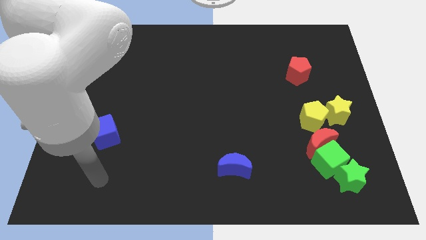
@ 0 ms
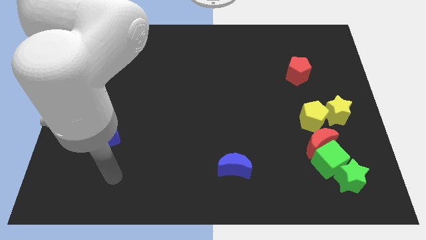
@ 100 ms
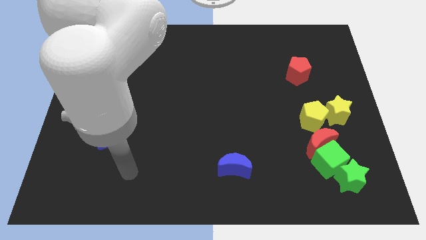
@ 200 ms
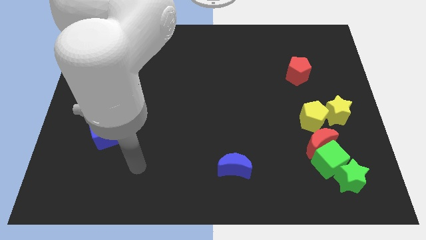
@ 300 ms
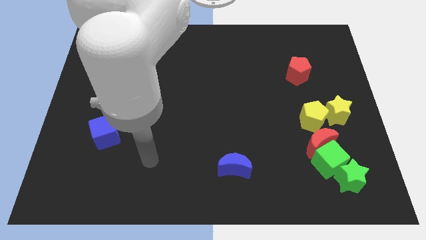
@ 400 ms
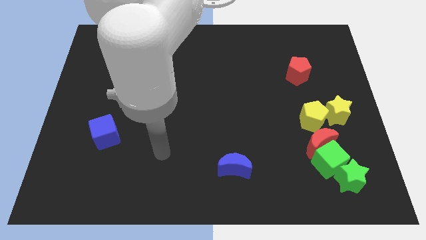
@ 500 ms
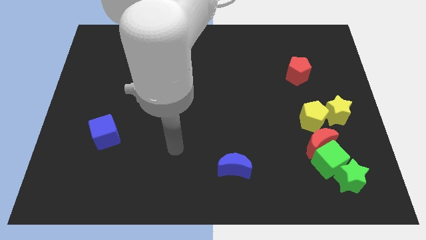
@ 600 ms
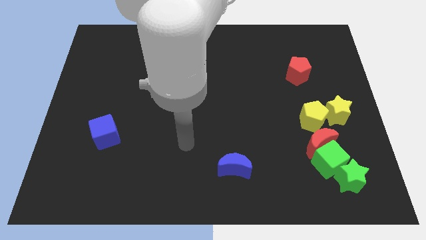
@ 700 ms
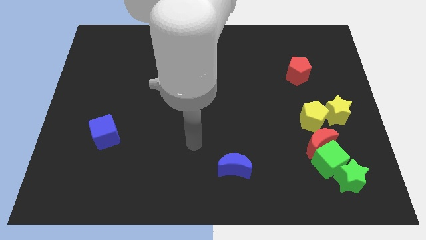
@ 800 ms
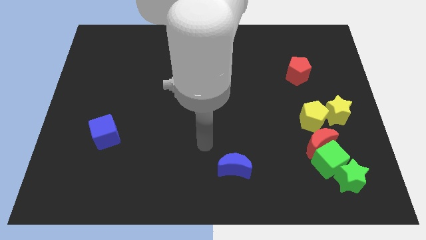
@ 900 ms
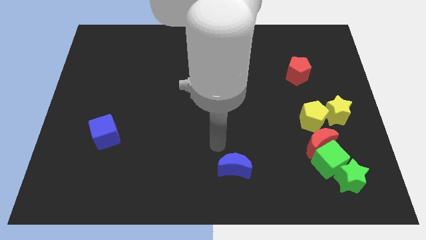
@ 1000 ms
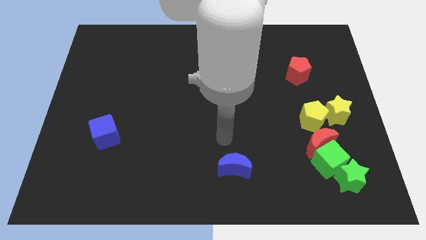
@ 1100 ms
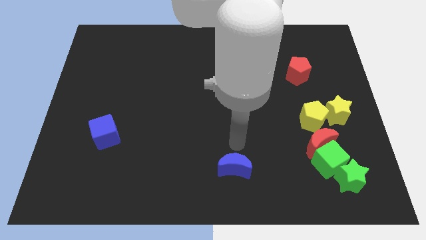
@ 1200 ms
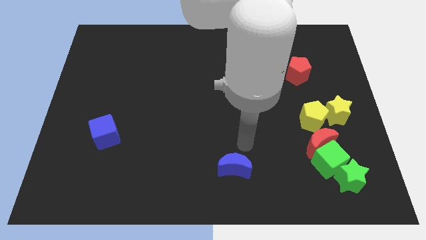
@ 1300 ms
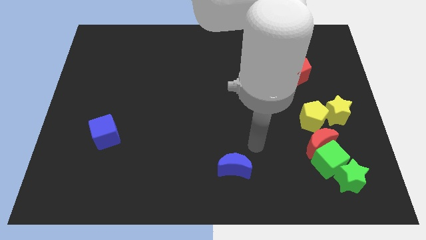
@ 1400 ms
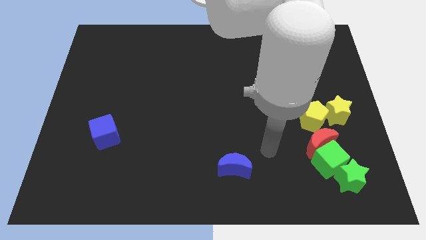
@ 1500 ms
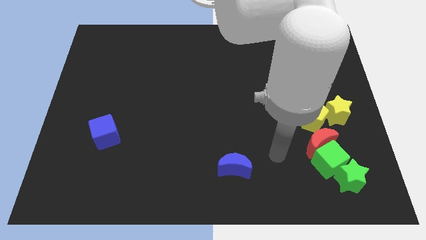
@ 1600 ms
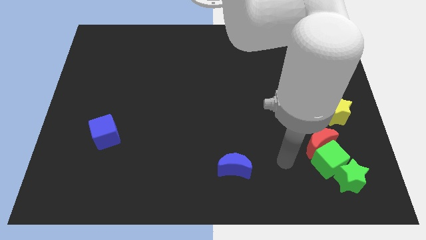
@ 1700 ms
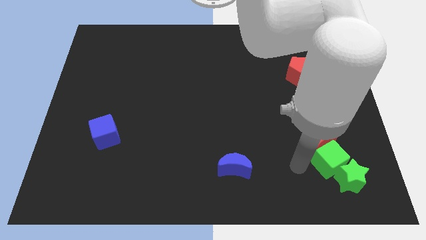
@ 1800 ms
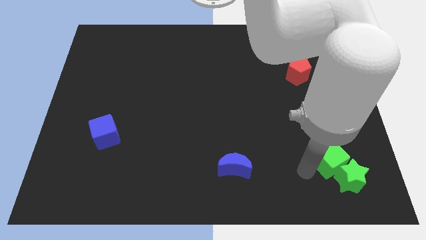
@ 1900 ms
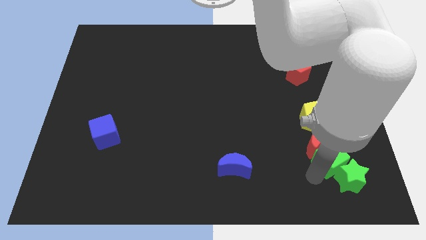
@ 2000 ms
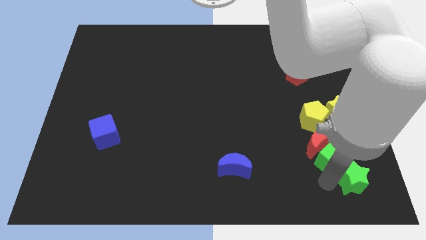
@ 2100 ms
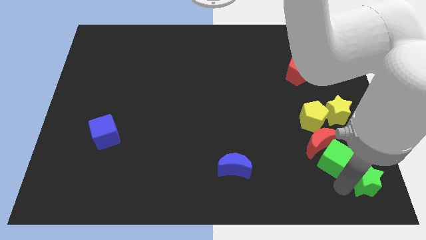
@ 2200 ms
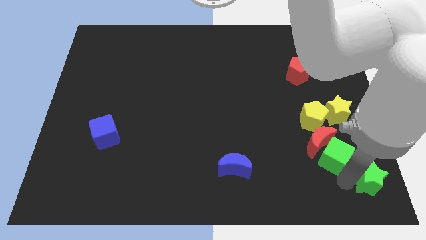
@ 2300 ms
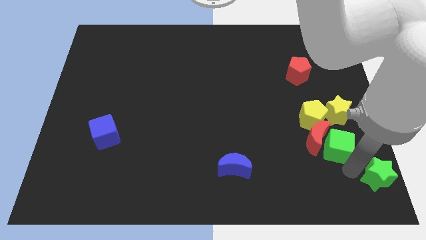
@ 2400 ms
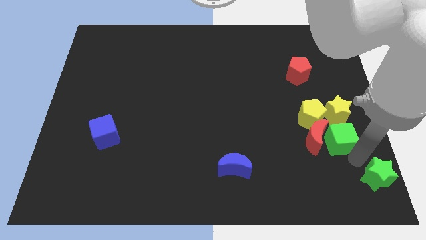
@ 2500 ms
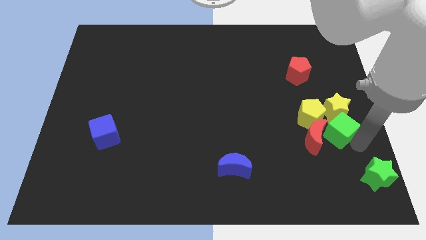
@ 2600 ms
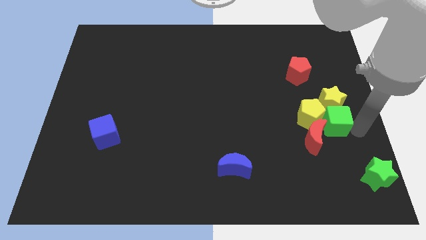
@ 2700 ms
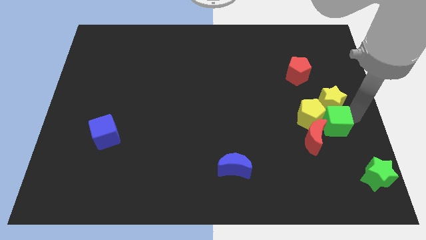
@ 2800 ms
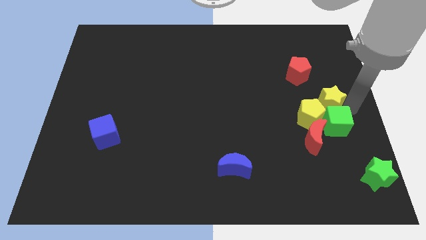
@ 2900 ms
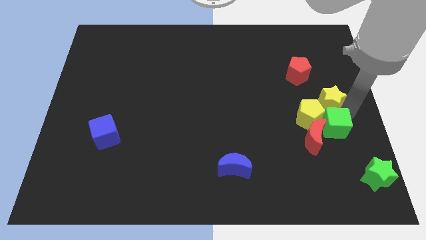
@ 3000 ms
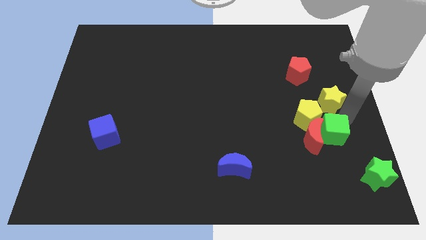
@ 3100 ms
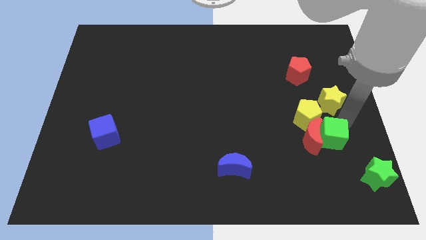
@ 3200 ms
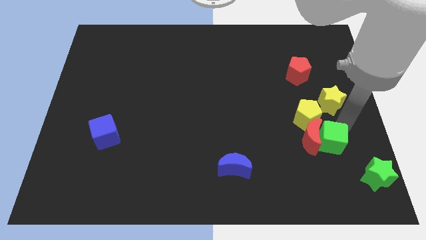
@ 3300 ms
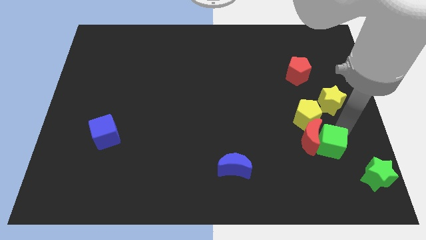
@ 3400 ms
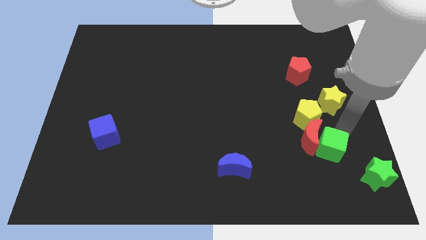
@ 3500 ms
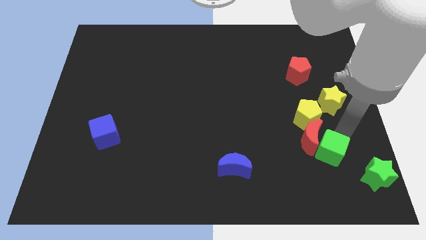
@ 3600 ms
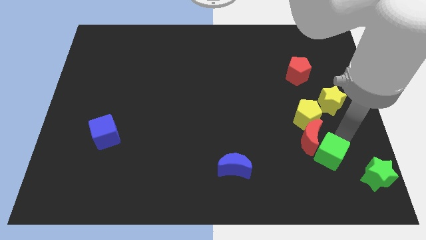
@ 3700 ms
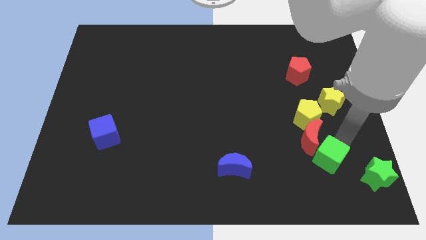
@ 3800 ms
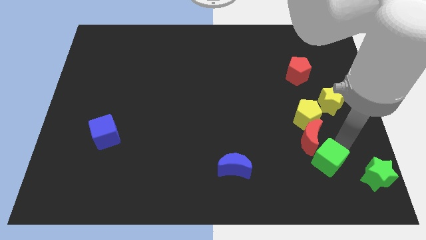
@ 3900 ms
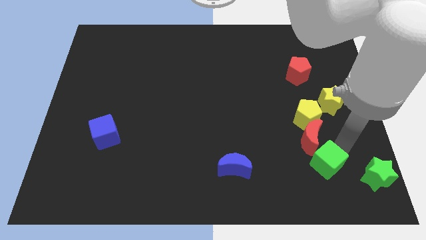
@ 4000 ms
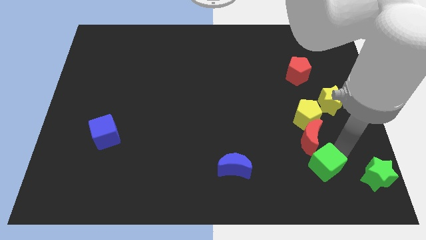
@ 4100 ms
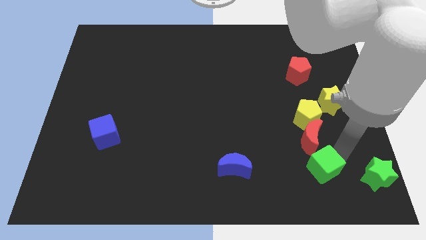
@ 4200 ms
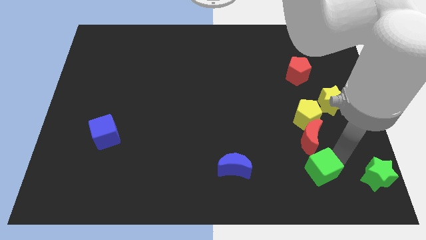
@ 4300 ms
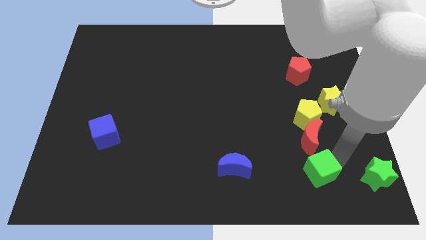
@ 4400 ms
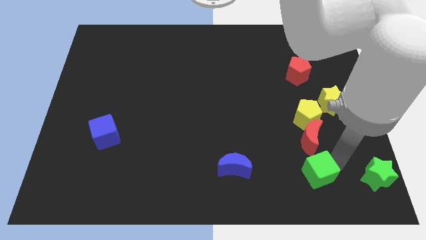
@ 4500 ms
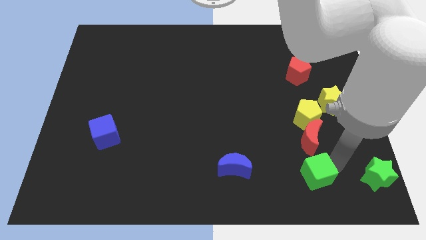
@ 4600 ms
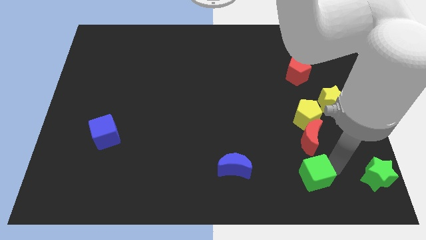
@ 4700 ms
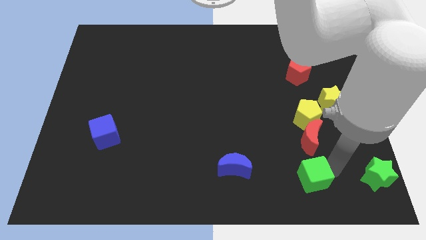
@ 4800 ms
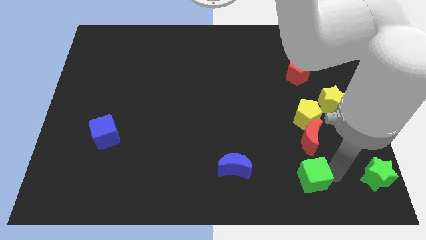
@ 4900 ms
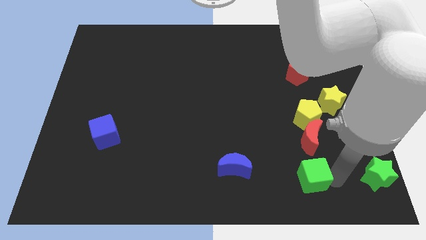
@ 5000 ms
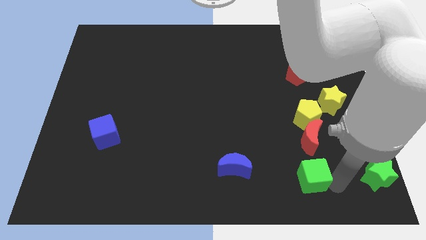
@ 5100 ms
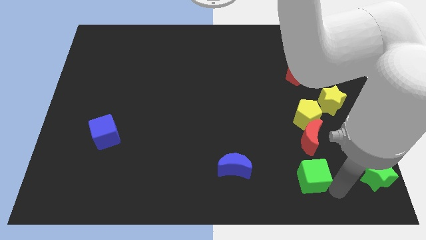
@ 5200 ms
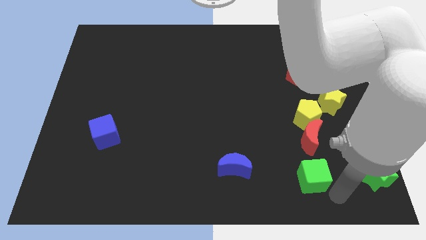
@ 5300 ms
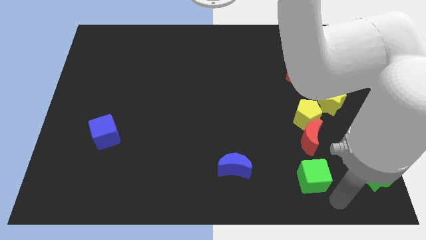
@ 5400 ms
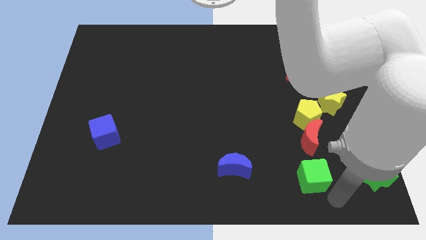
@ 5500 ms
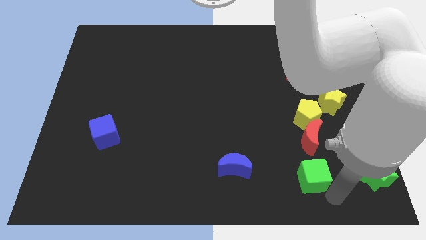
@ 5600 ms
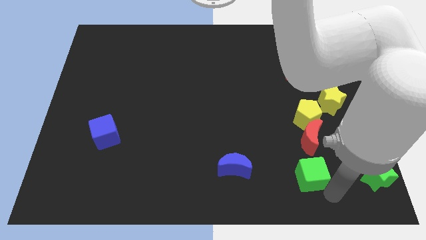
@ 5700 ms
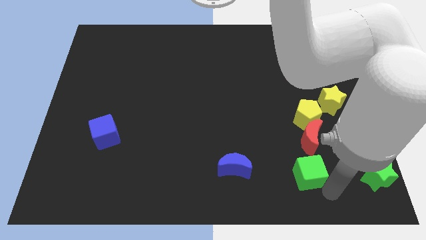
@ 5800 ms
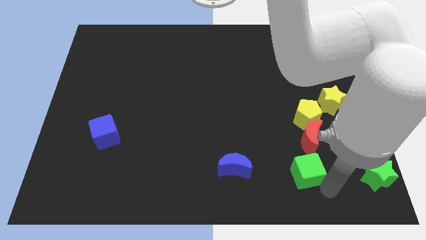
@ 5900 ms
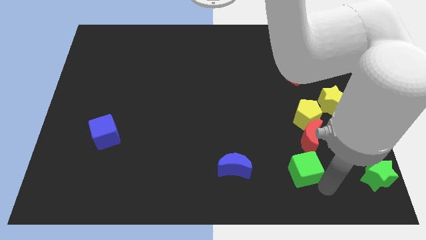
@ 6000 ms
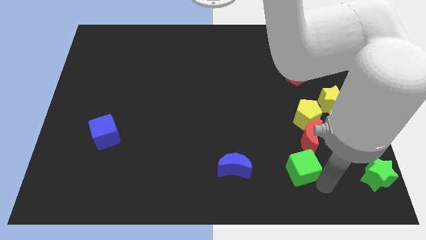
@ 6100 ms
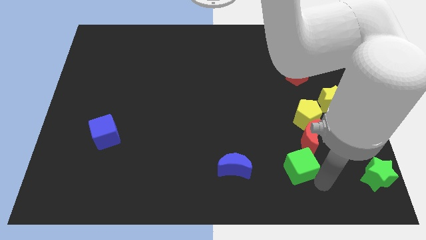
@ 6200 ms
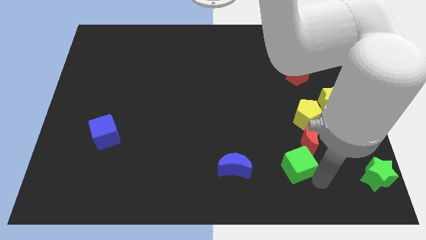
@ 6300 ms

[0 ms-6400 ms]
move the green cube away from the red moon and green star

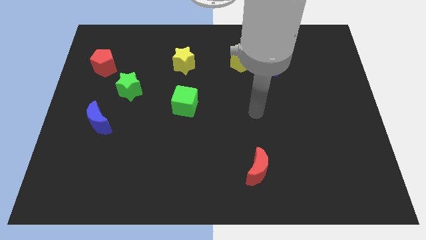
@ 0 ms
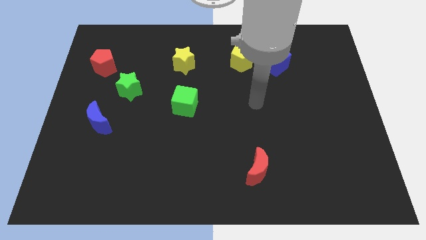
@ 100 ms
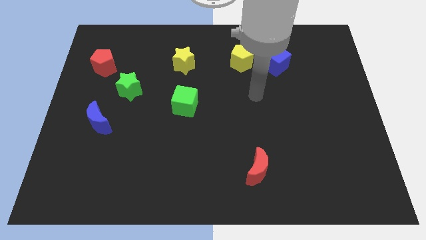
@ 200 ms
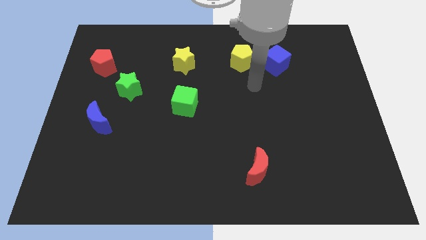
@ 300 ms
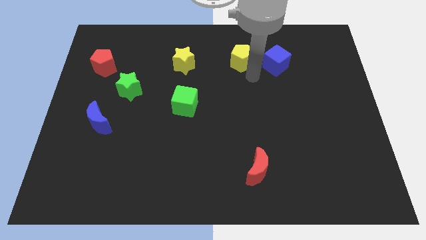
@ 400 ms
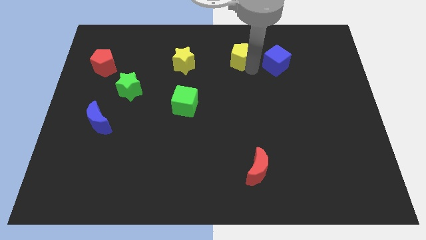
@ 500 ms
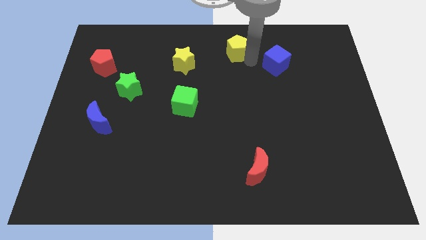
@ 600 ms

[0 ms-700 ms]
separate the blue cube from the yellow pentagon

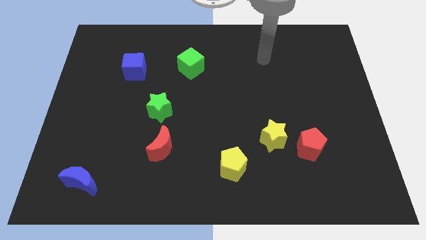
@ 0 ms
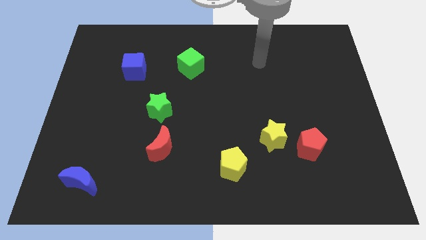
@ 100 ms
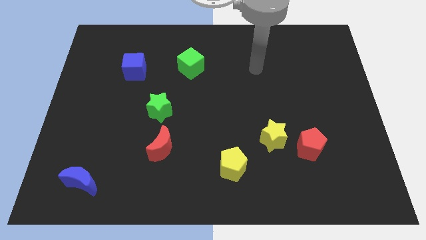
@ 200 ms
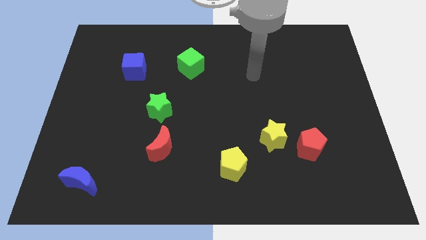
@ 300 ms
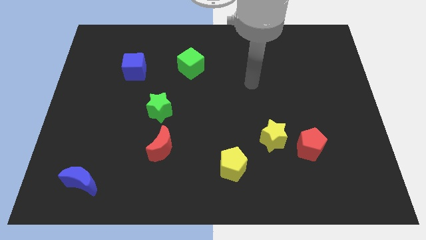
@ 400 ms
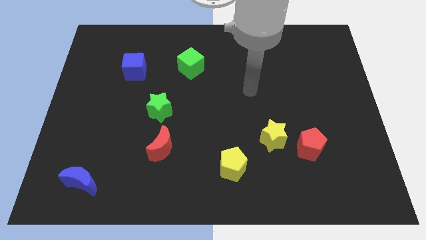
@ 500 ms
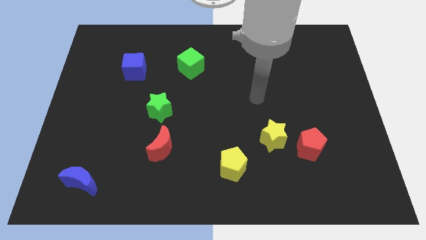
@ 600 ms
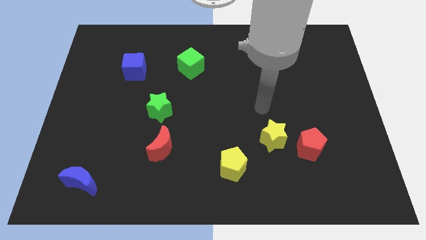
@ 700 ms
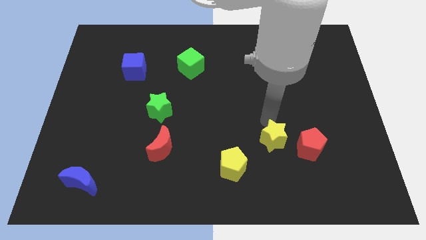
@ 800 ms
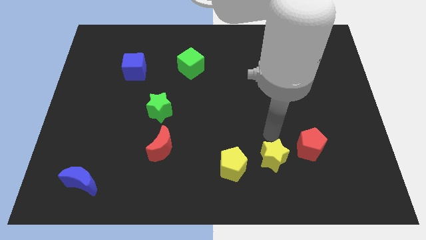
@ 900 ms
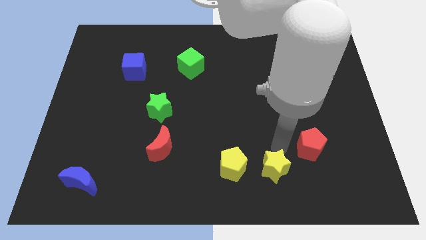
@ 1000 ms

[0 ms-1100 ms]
separate the red pentagon from the yellow star

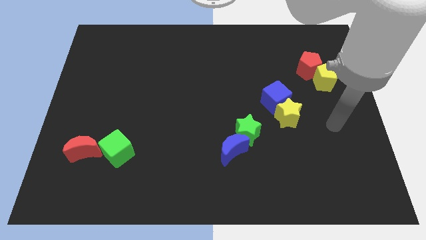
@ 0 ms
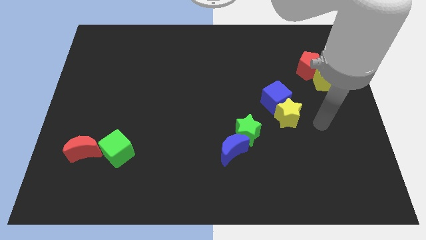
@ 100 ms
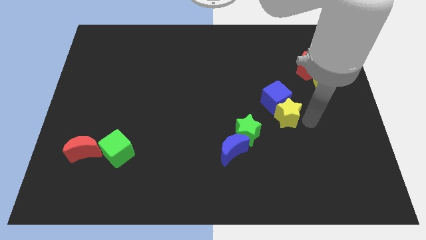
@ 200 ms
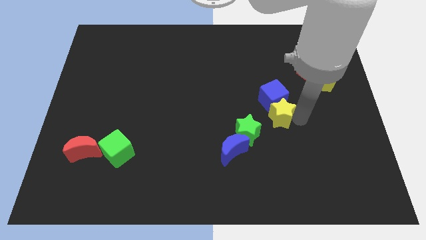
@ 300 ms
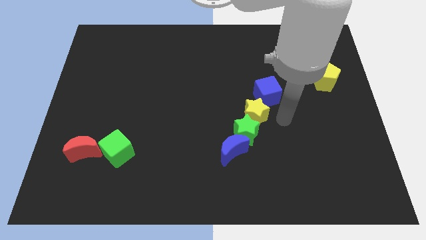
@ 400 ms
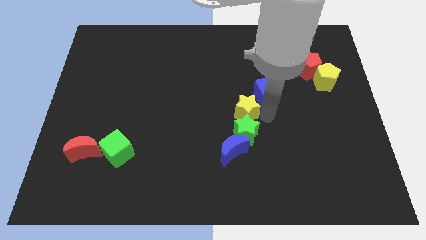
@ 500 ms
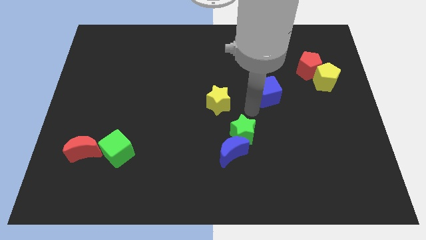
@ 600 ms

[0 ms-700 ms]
separate the blue cube from the yellow star

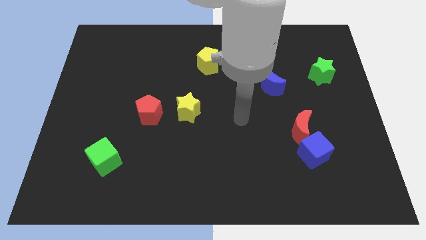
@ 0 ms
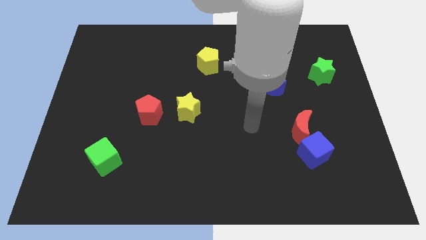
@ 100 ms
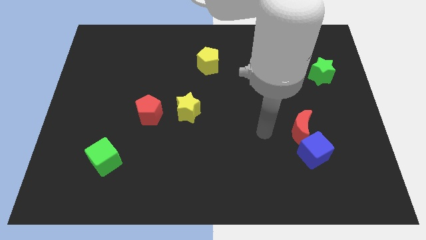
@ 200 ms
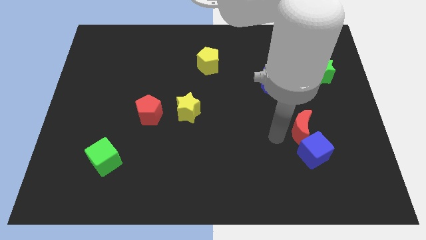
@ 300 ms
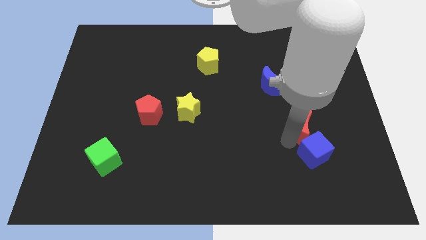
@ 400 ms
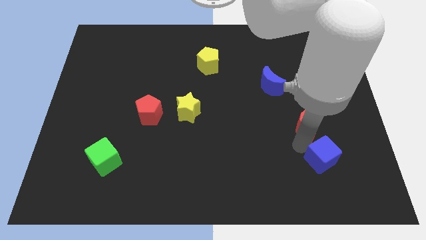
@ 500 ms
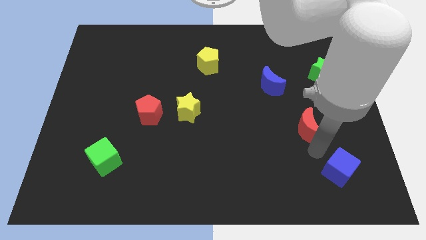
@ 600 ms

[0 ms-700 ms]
pull the red moon apart from the blue cube
